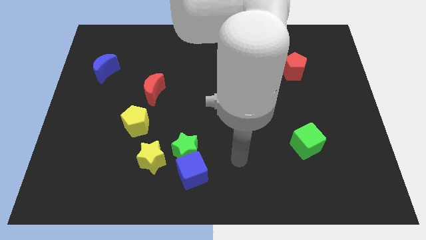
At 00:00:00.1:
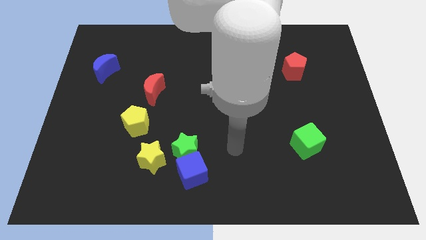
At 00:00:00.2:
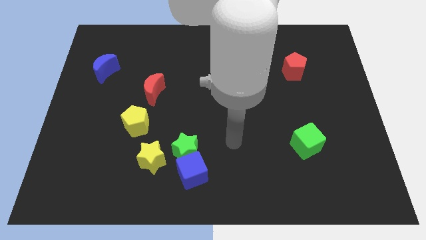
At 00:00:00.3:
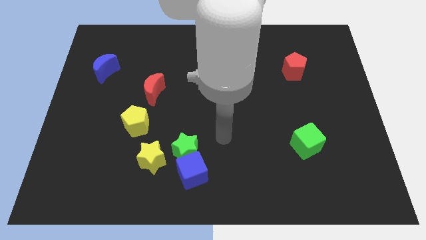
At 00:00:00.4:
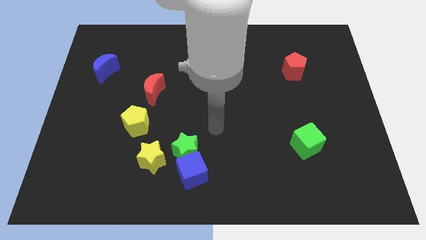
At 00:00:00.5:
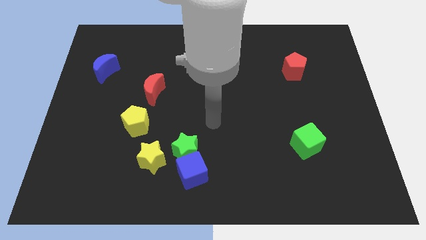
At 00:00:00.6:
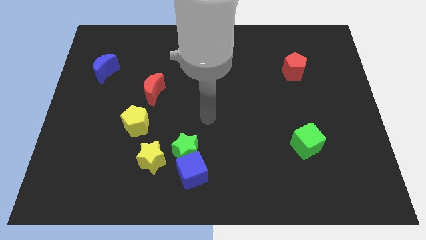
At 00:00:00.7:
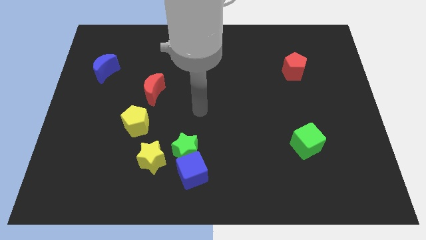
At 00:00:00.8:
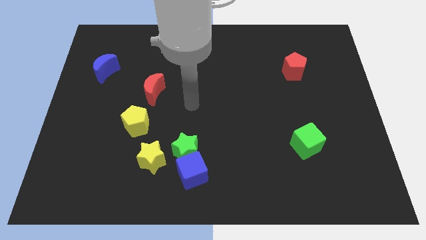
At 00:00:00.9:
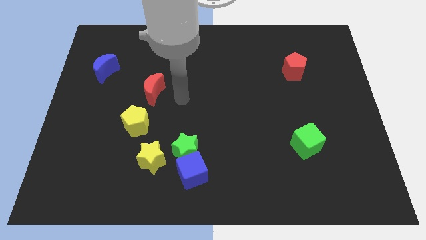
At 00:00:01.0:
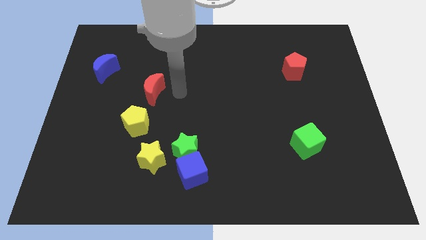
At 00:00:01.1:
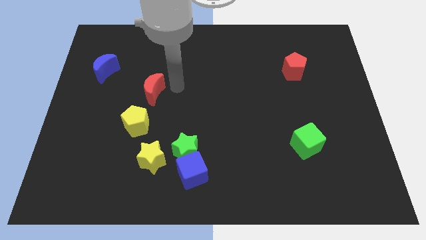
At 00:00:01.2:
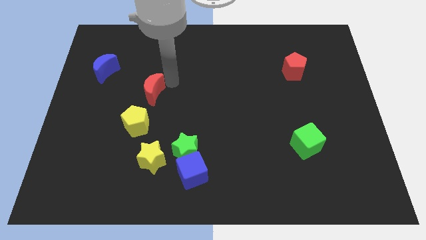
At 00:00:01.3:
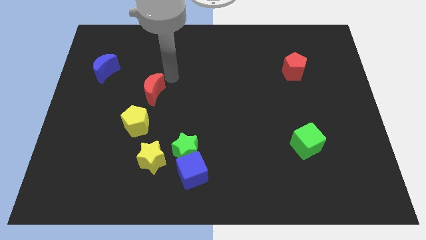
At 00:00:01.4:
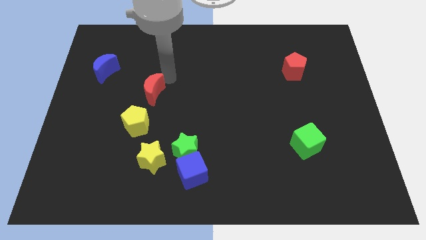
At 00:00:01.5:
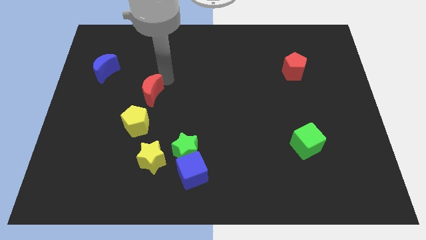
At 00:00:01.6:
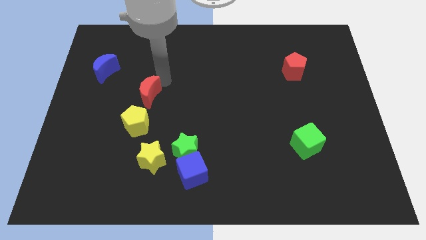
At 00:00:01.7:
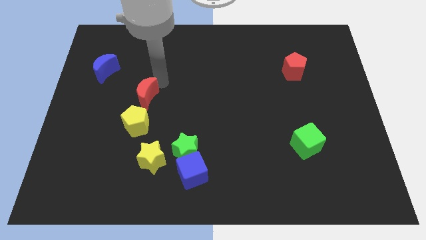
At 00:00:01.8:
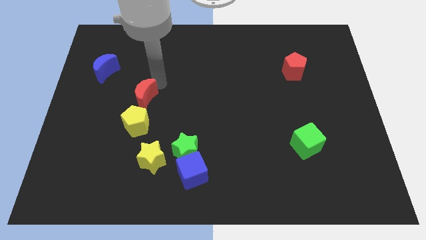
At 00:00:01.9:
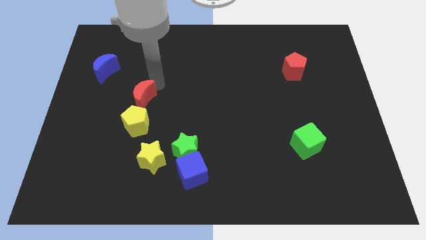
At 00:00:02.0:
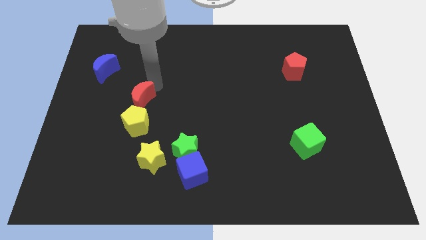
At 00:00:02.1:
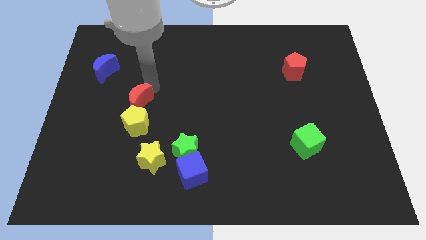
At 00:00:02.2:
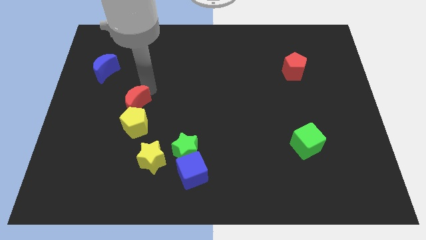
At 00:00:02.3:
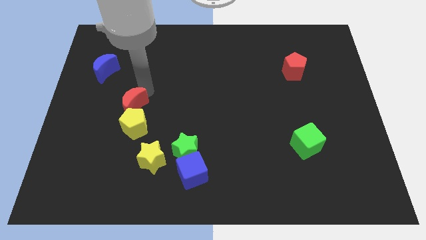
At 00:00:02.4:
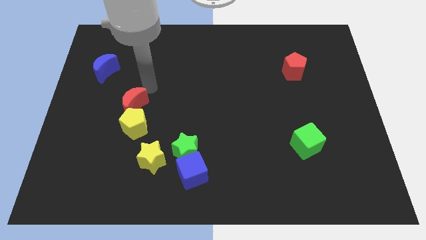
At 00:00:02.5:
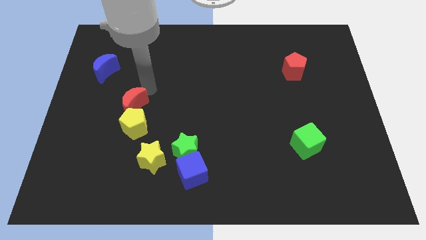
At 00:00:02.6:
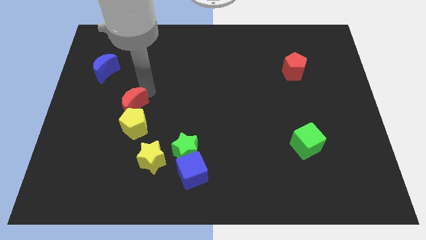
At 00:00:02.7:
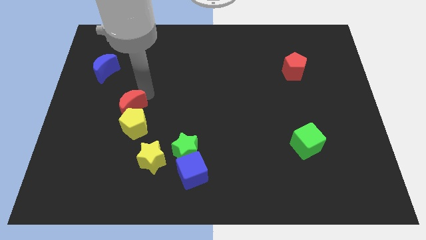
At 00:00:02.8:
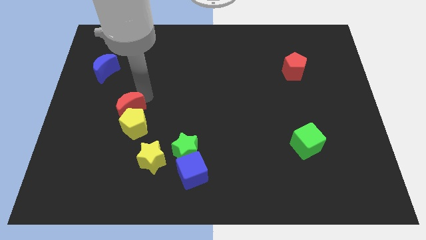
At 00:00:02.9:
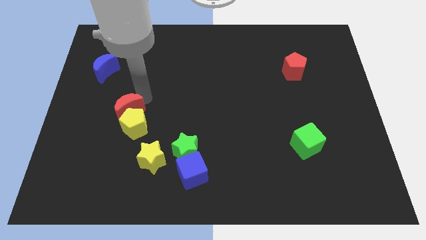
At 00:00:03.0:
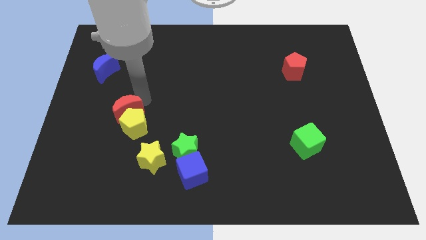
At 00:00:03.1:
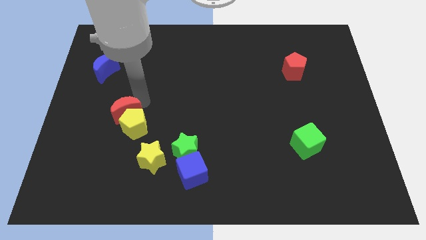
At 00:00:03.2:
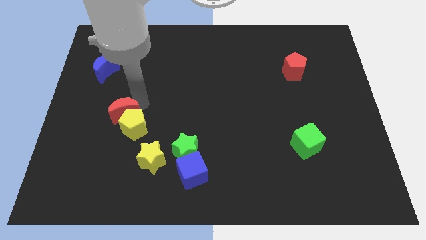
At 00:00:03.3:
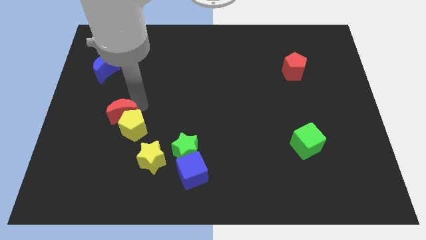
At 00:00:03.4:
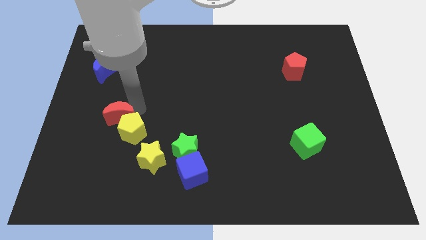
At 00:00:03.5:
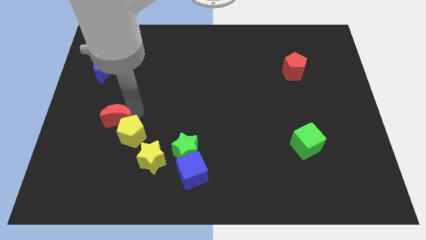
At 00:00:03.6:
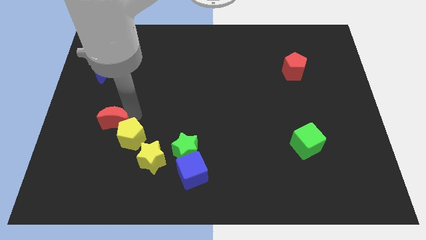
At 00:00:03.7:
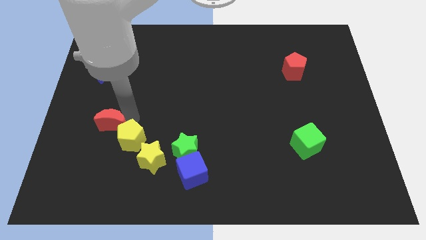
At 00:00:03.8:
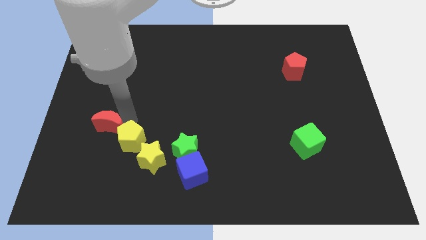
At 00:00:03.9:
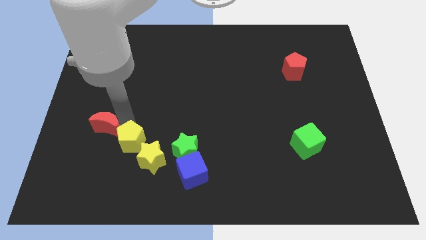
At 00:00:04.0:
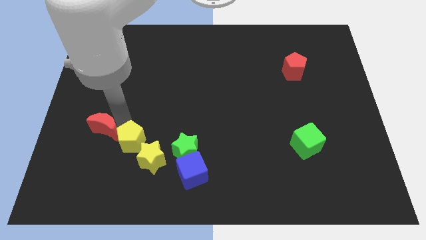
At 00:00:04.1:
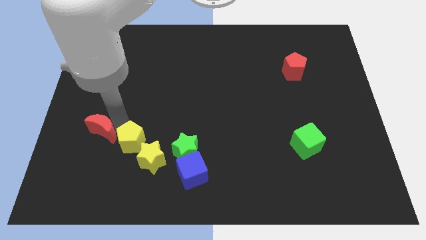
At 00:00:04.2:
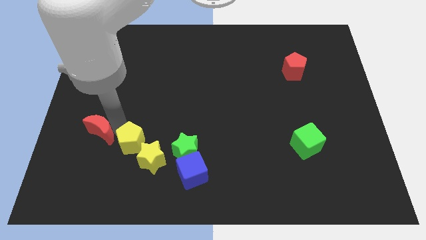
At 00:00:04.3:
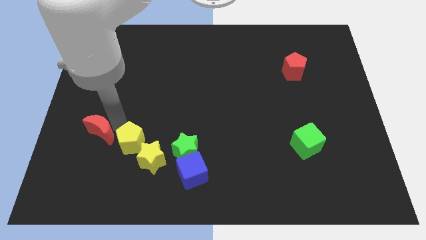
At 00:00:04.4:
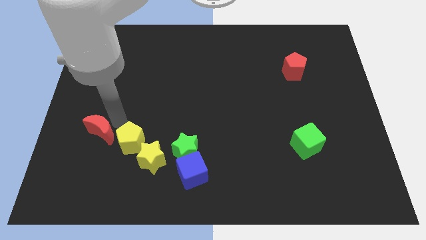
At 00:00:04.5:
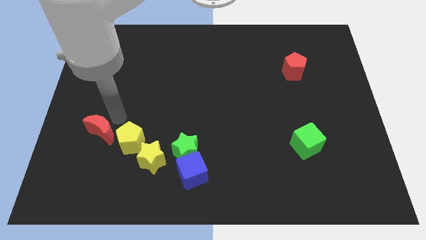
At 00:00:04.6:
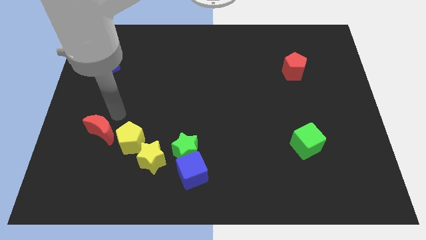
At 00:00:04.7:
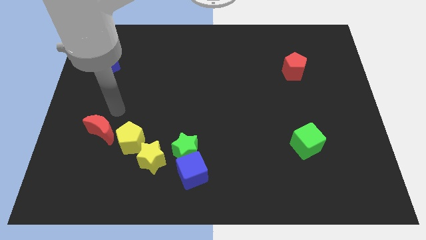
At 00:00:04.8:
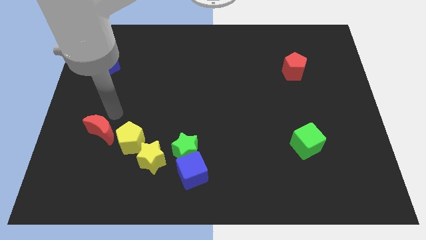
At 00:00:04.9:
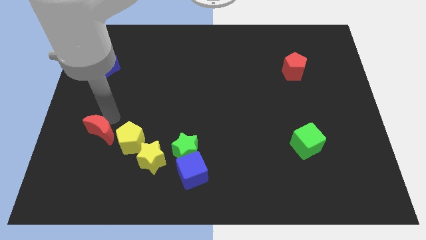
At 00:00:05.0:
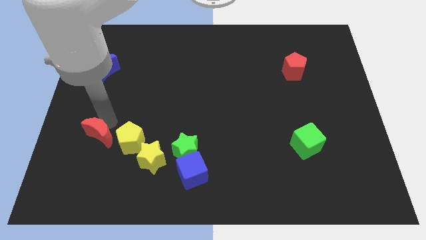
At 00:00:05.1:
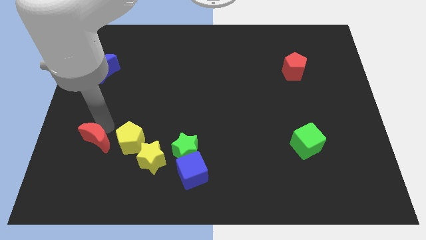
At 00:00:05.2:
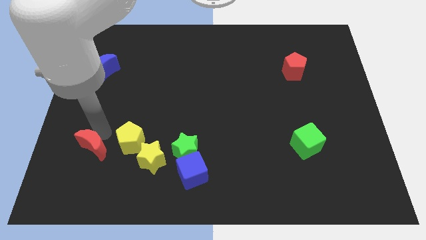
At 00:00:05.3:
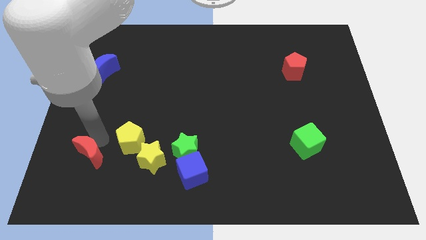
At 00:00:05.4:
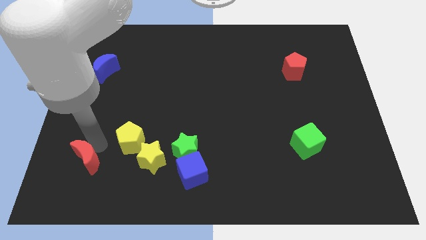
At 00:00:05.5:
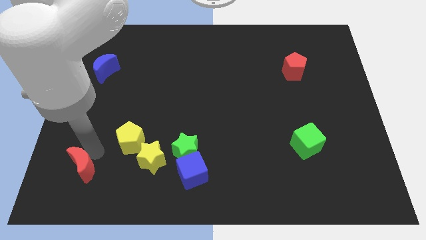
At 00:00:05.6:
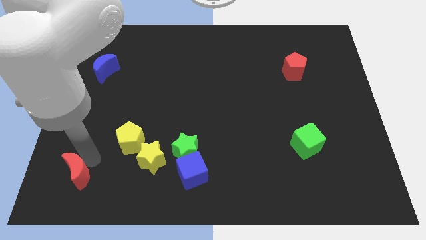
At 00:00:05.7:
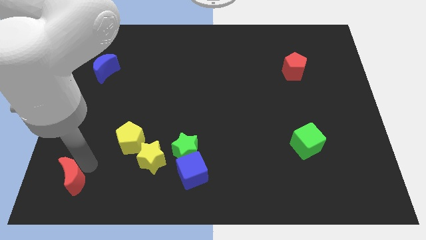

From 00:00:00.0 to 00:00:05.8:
put the red moon to the bottom left of the board
